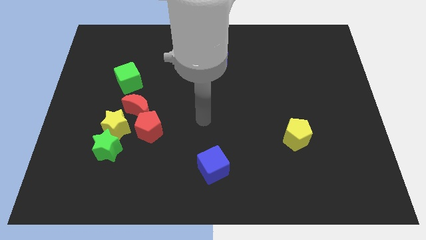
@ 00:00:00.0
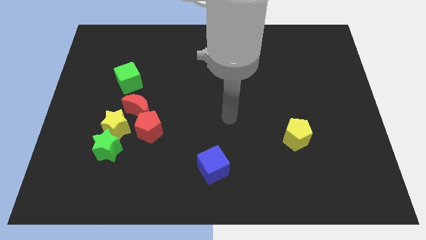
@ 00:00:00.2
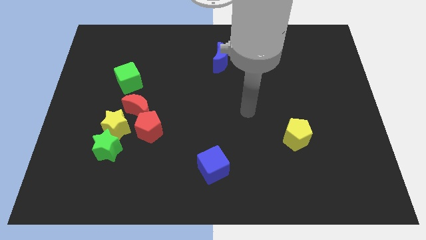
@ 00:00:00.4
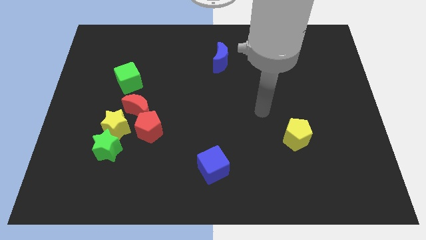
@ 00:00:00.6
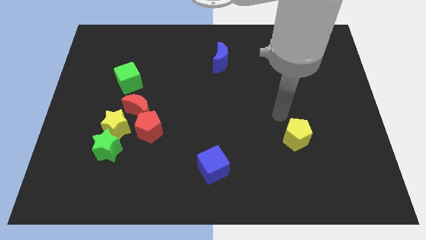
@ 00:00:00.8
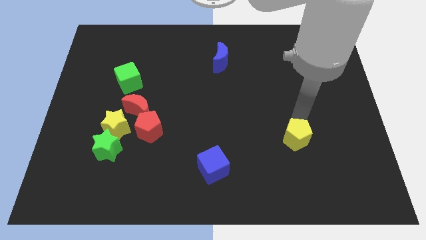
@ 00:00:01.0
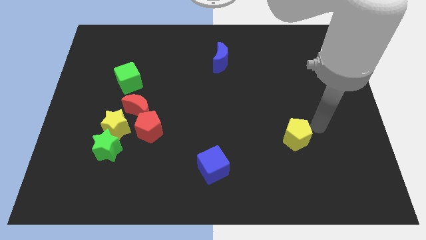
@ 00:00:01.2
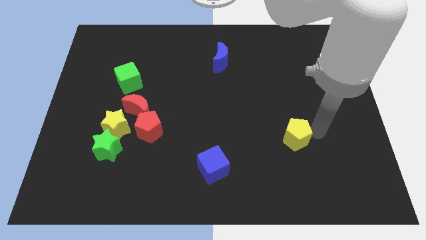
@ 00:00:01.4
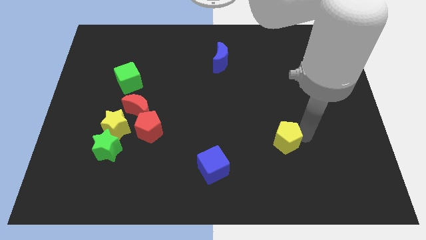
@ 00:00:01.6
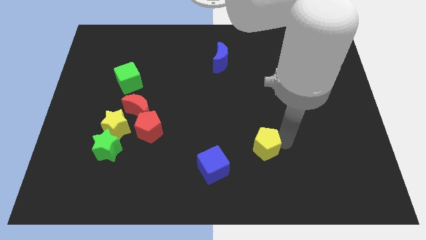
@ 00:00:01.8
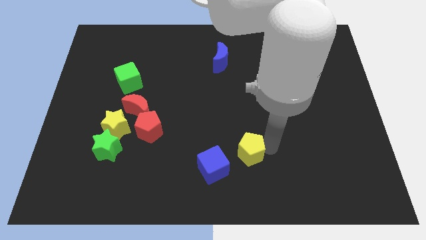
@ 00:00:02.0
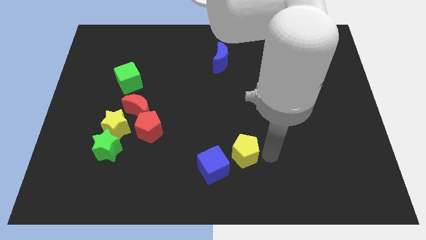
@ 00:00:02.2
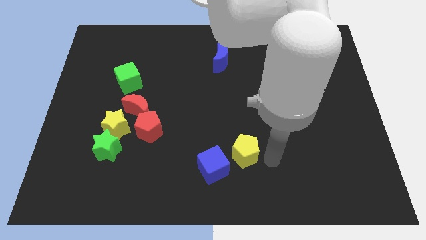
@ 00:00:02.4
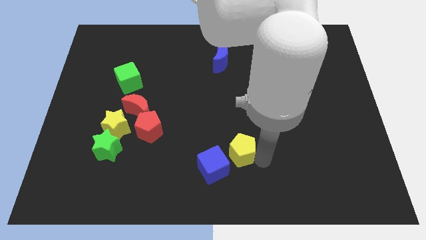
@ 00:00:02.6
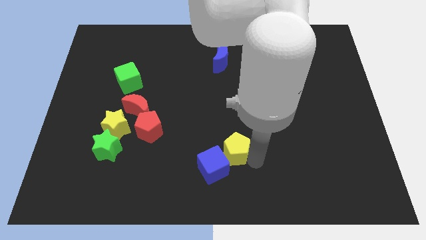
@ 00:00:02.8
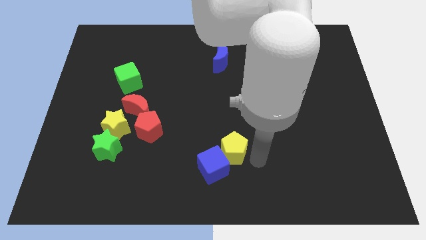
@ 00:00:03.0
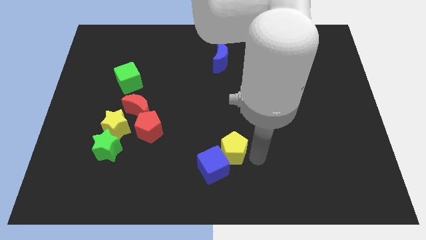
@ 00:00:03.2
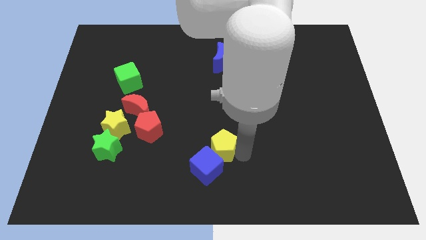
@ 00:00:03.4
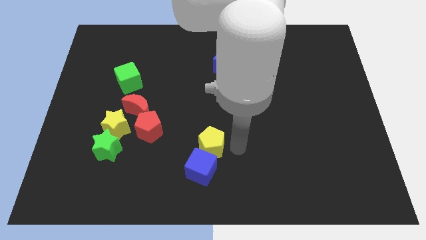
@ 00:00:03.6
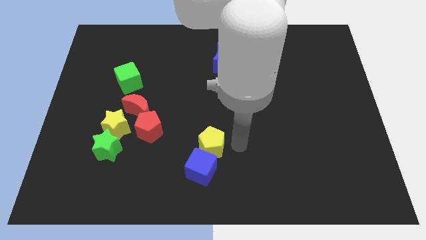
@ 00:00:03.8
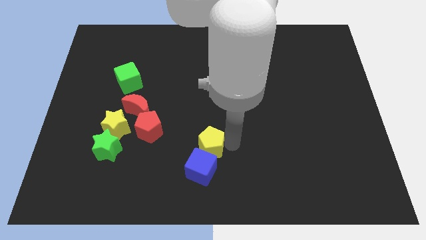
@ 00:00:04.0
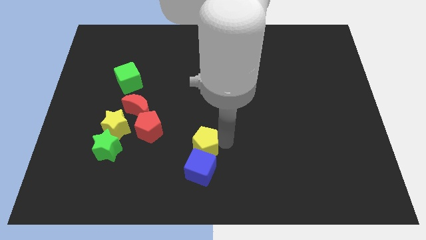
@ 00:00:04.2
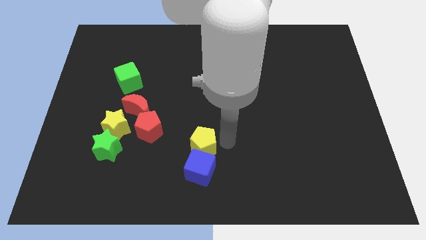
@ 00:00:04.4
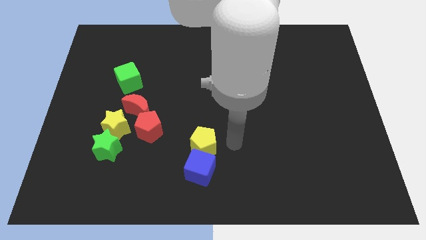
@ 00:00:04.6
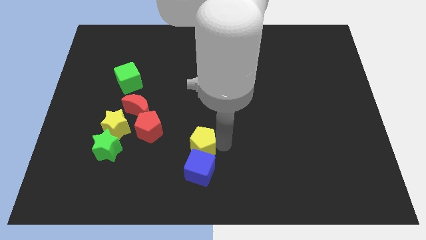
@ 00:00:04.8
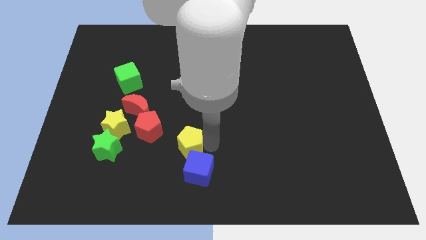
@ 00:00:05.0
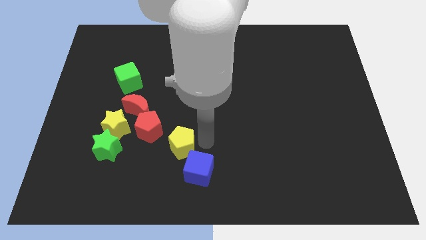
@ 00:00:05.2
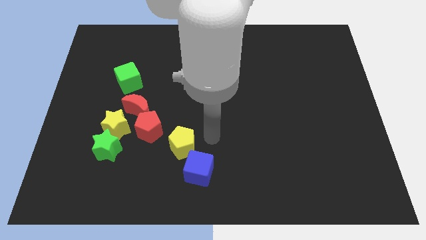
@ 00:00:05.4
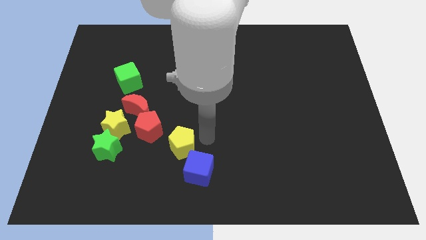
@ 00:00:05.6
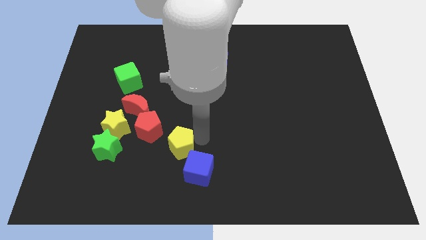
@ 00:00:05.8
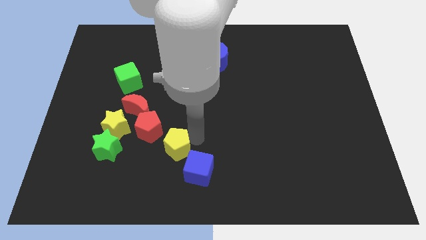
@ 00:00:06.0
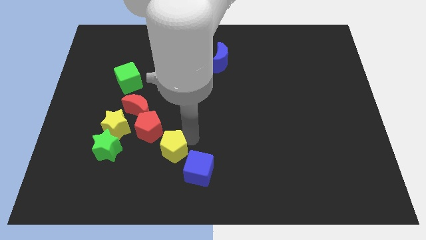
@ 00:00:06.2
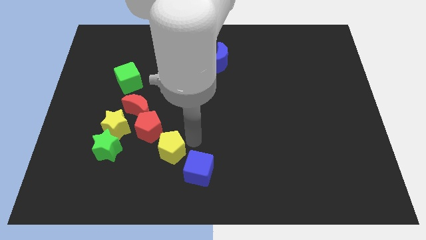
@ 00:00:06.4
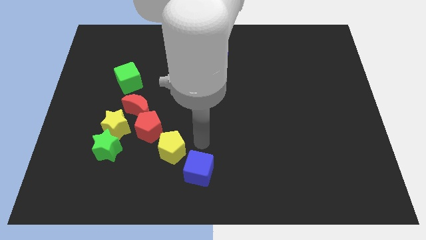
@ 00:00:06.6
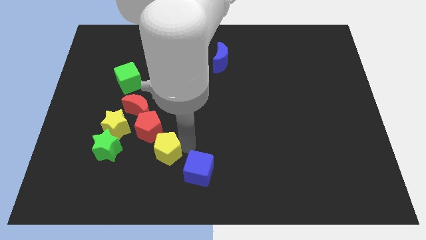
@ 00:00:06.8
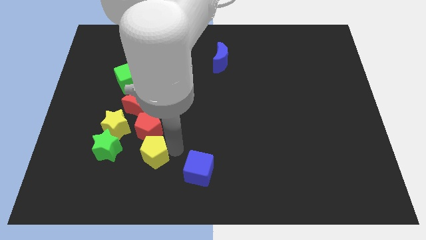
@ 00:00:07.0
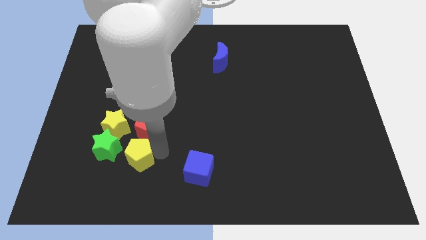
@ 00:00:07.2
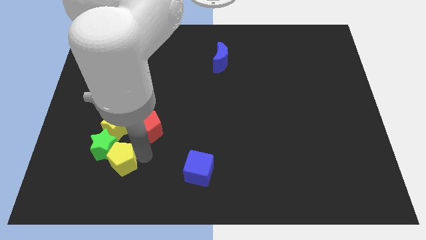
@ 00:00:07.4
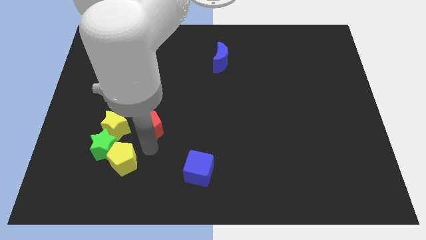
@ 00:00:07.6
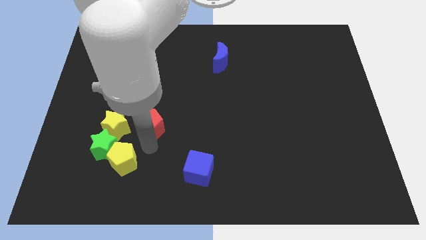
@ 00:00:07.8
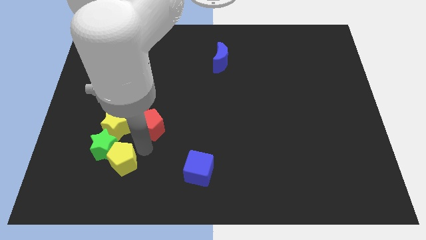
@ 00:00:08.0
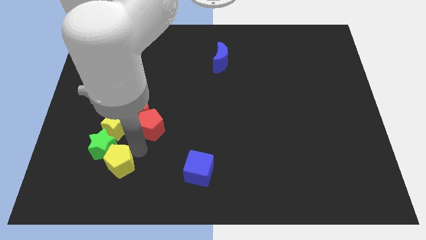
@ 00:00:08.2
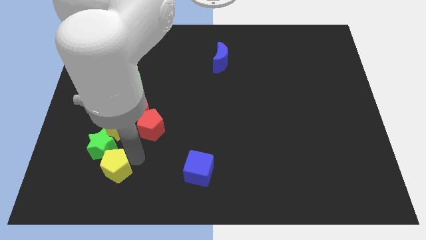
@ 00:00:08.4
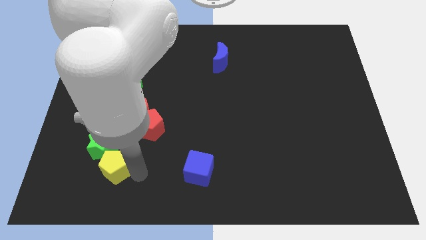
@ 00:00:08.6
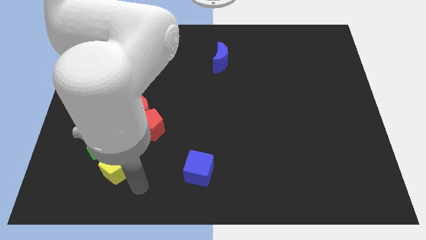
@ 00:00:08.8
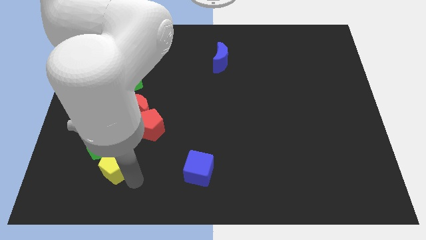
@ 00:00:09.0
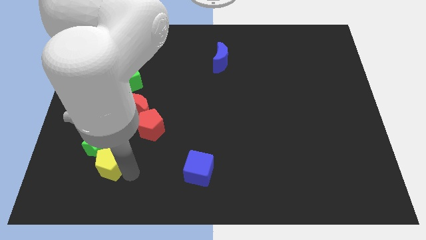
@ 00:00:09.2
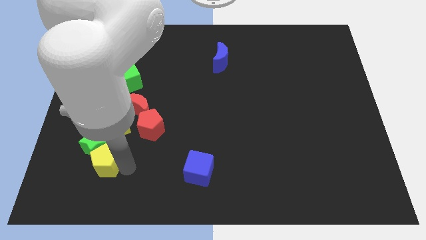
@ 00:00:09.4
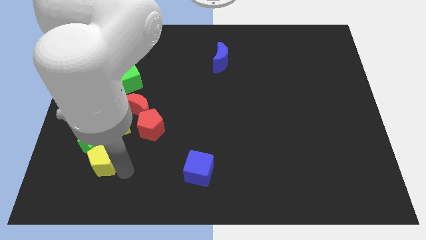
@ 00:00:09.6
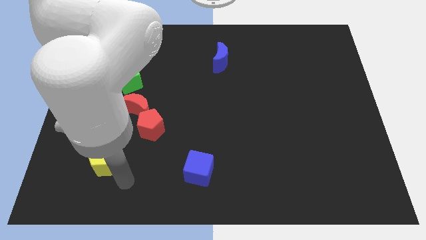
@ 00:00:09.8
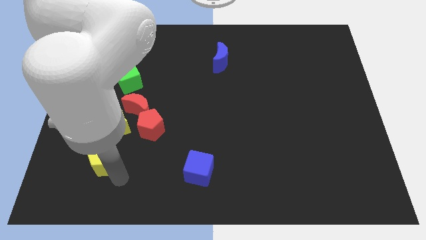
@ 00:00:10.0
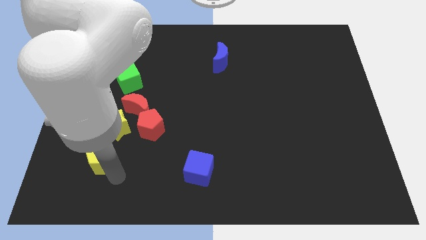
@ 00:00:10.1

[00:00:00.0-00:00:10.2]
slide the yellow pentagon to the bottom left of the yellow star

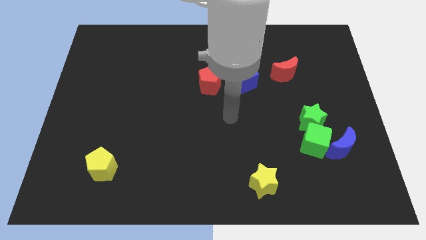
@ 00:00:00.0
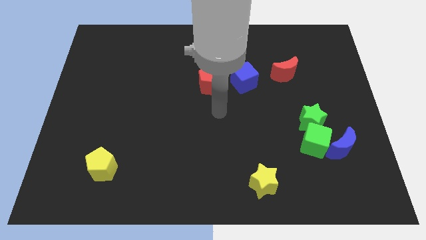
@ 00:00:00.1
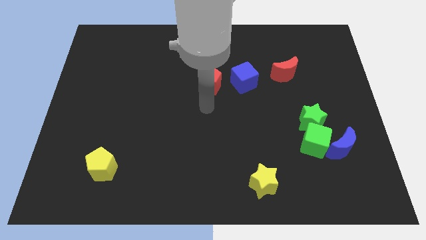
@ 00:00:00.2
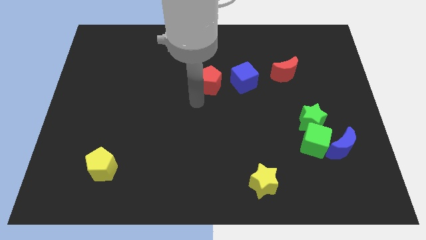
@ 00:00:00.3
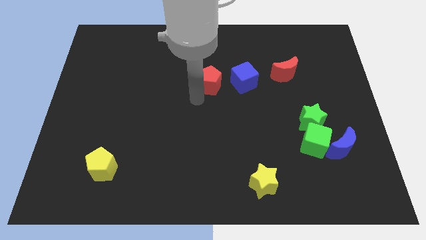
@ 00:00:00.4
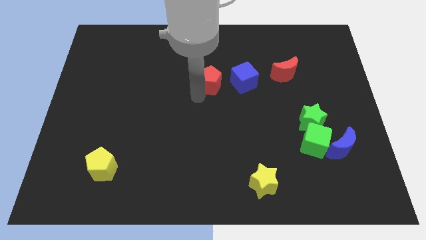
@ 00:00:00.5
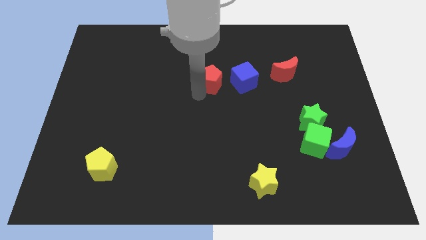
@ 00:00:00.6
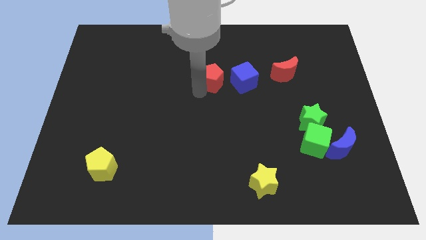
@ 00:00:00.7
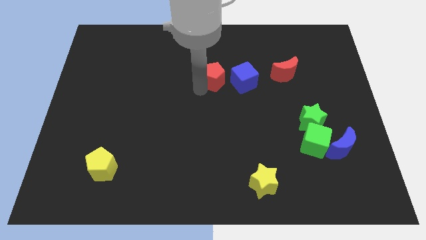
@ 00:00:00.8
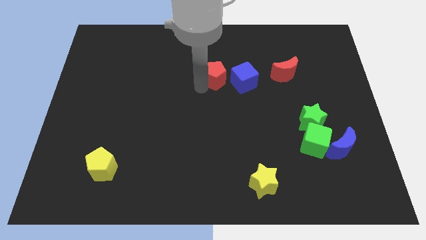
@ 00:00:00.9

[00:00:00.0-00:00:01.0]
push the red pentagon to the top left side of the blue cube

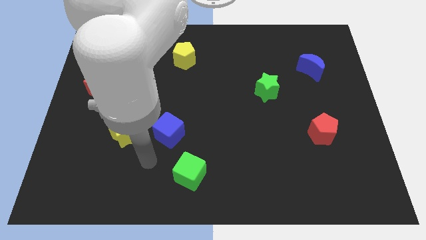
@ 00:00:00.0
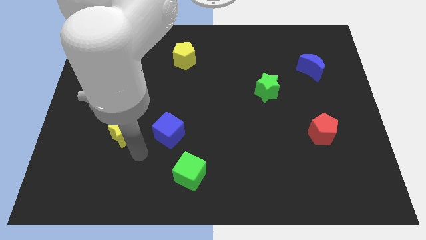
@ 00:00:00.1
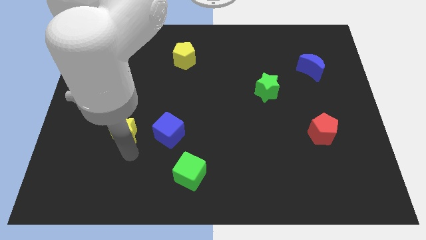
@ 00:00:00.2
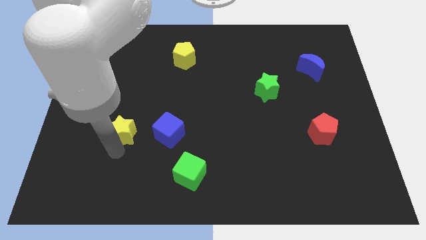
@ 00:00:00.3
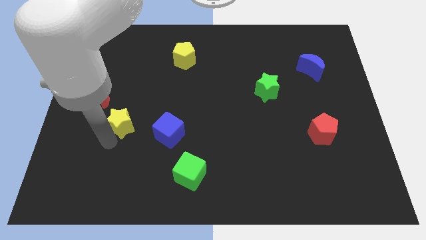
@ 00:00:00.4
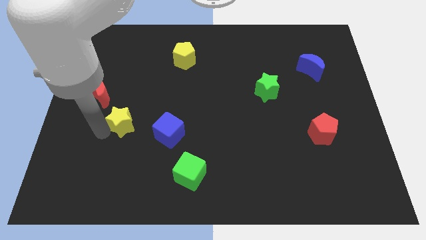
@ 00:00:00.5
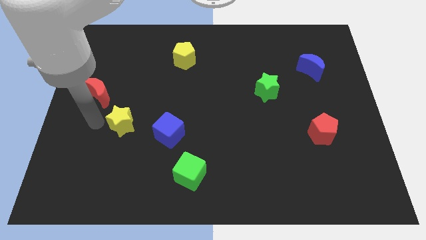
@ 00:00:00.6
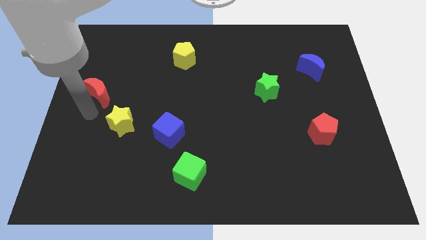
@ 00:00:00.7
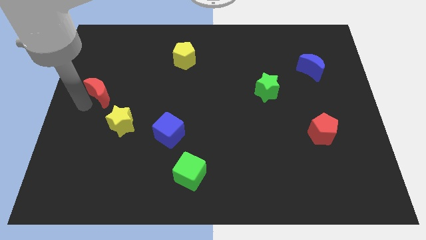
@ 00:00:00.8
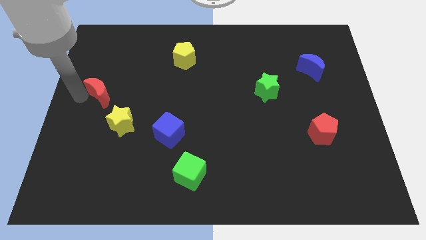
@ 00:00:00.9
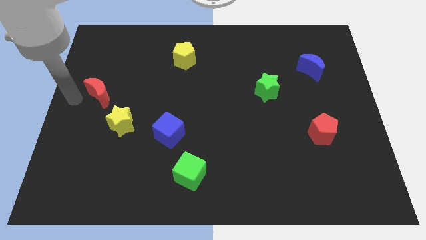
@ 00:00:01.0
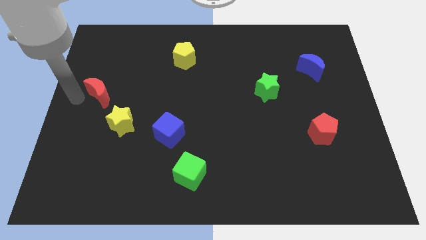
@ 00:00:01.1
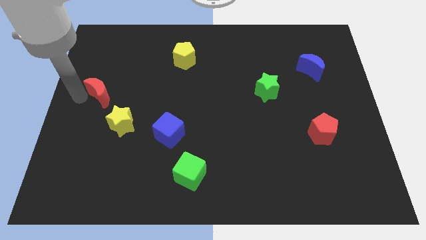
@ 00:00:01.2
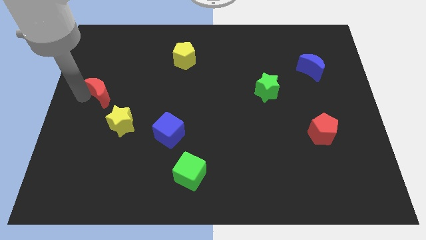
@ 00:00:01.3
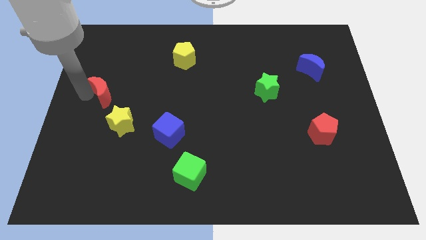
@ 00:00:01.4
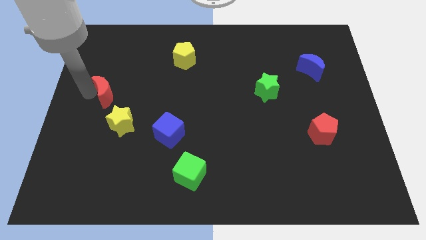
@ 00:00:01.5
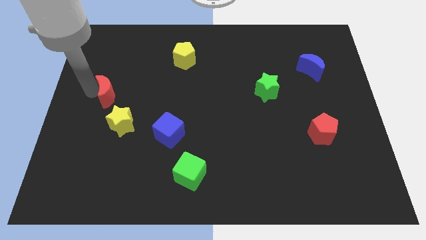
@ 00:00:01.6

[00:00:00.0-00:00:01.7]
slide the red moon above the yellow star
